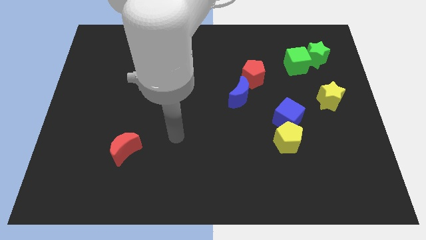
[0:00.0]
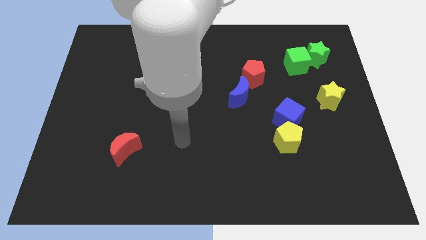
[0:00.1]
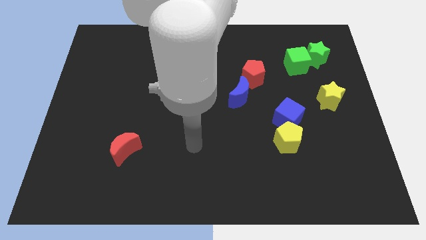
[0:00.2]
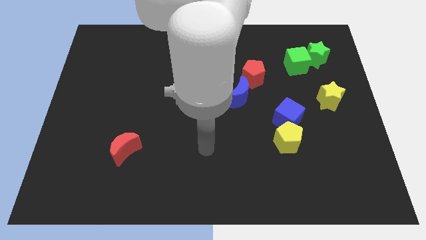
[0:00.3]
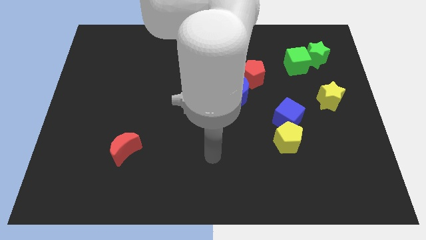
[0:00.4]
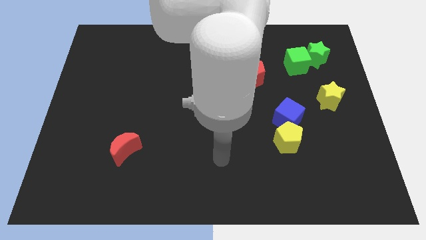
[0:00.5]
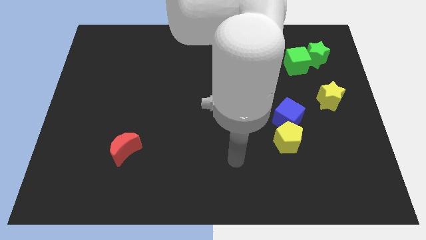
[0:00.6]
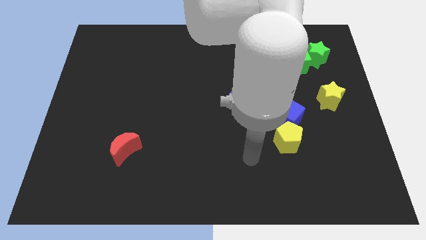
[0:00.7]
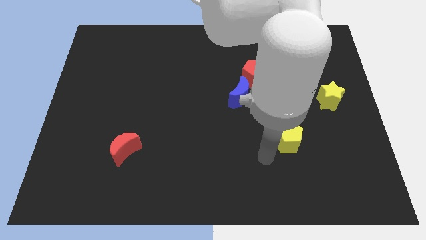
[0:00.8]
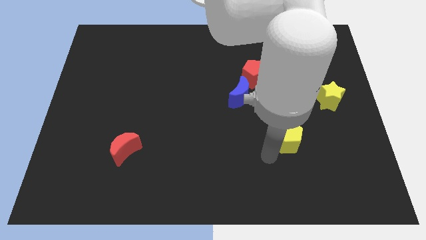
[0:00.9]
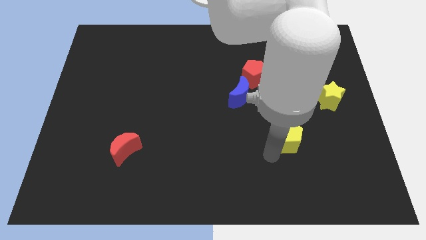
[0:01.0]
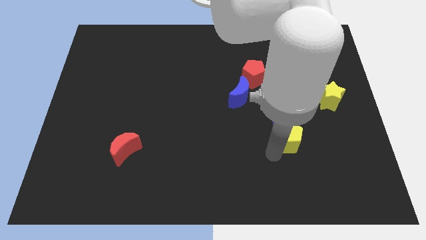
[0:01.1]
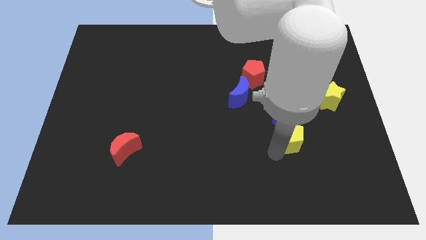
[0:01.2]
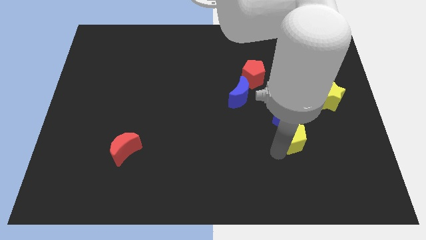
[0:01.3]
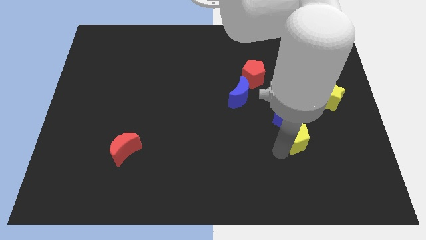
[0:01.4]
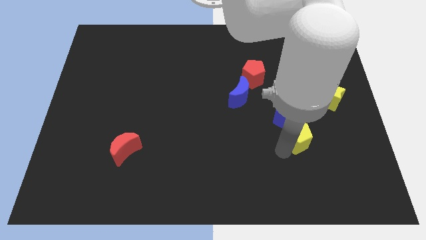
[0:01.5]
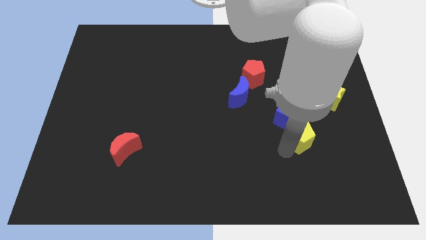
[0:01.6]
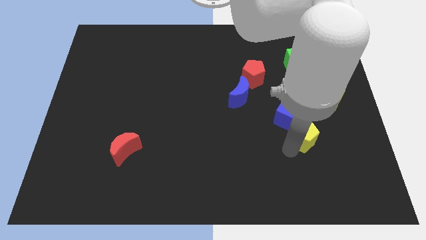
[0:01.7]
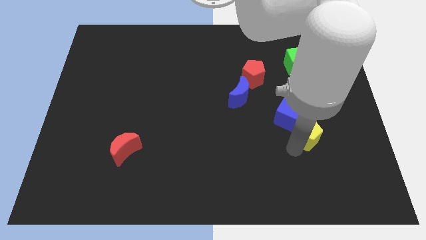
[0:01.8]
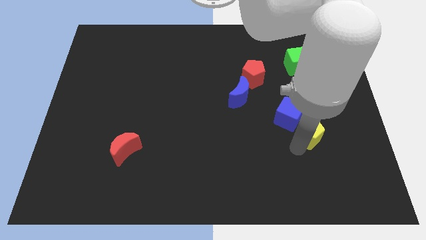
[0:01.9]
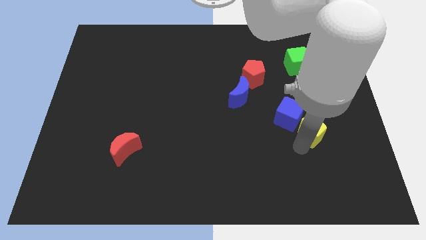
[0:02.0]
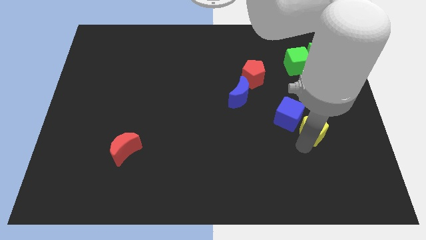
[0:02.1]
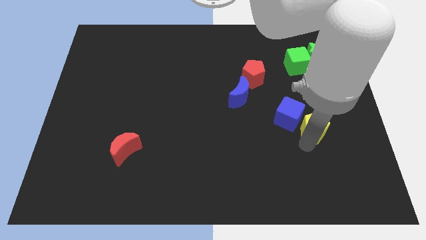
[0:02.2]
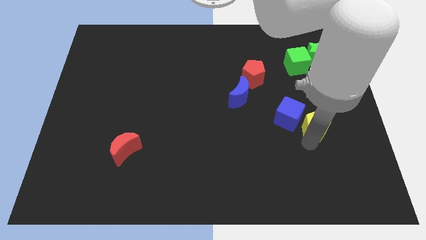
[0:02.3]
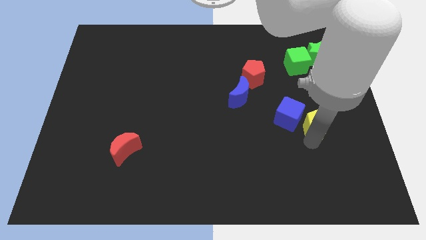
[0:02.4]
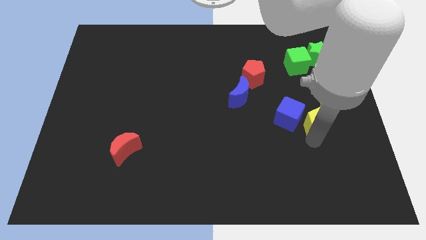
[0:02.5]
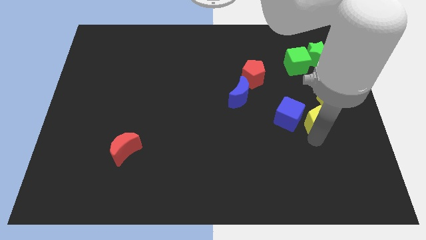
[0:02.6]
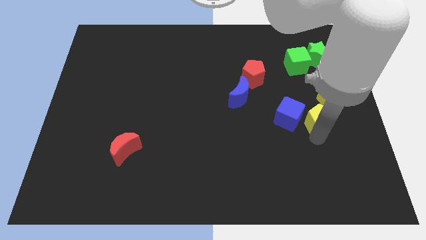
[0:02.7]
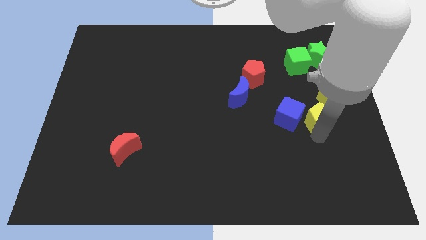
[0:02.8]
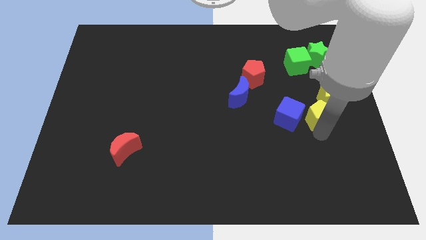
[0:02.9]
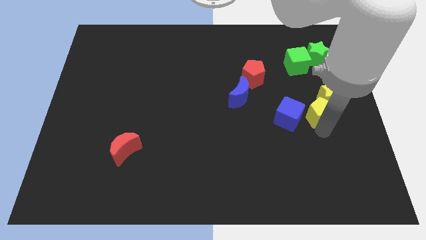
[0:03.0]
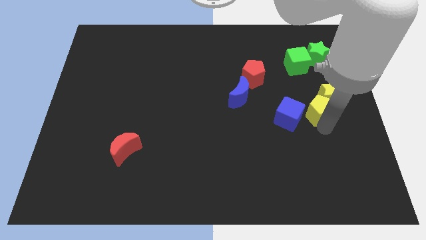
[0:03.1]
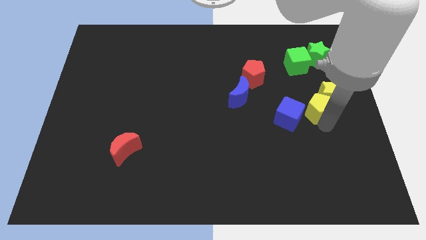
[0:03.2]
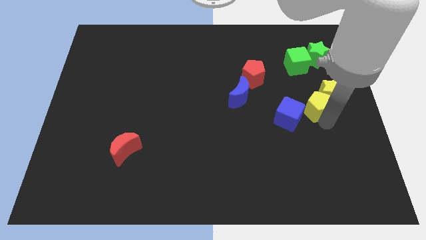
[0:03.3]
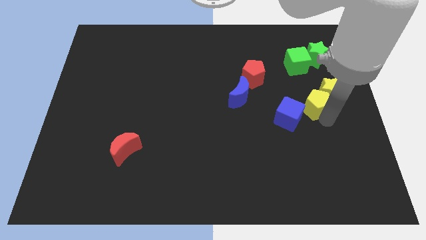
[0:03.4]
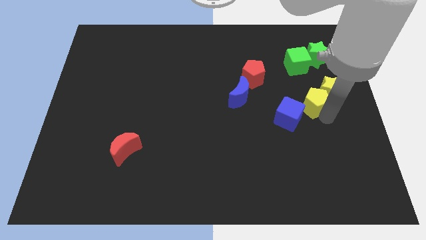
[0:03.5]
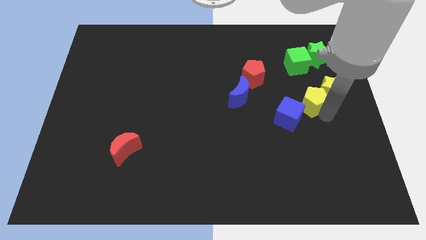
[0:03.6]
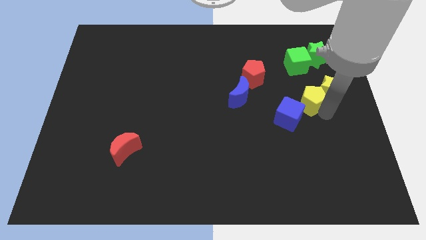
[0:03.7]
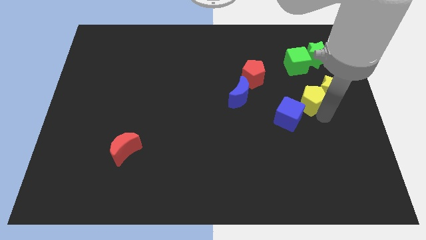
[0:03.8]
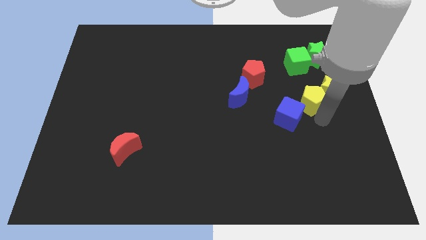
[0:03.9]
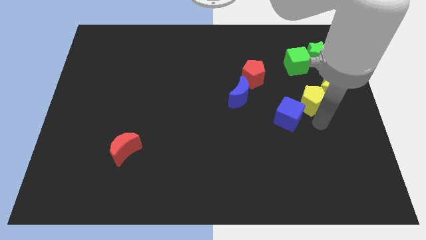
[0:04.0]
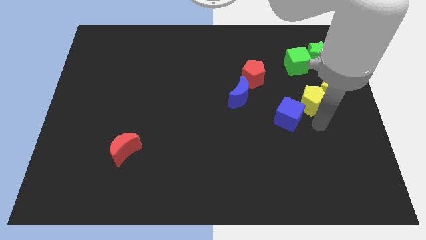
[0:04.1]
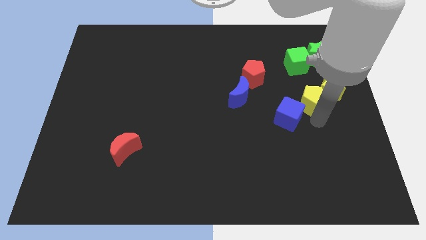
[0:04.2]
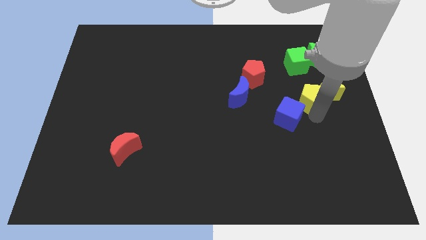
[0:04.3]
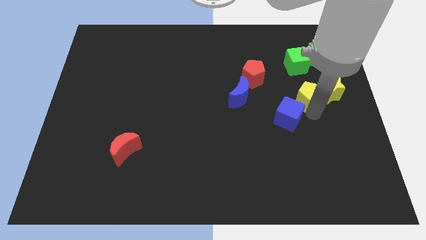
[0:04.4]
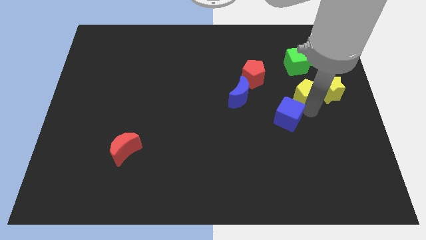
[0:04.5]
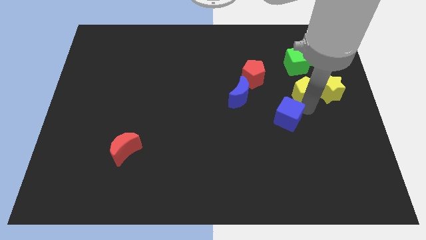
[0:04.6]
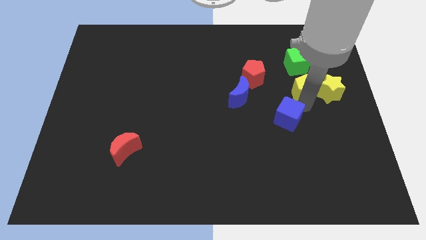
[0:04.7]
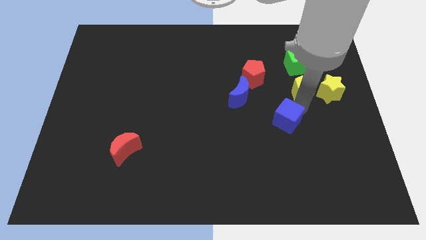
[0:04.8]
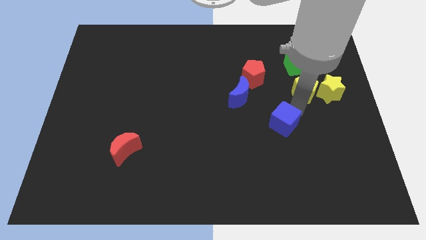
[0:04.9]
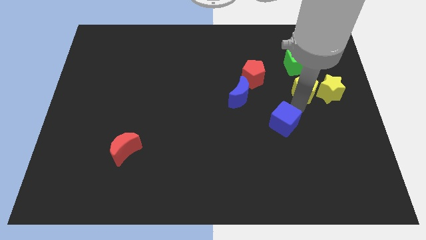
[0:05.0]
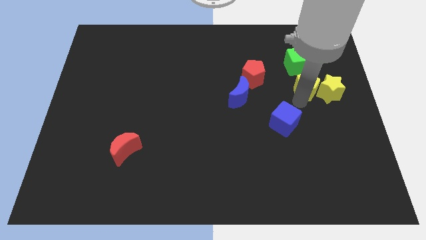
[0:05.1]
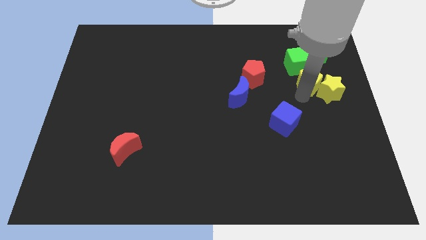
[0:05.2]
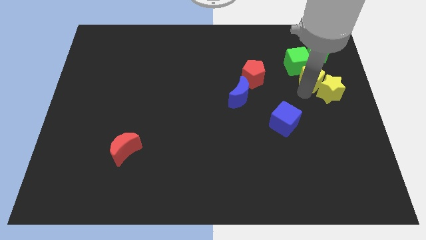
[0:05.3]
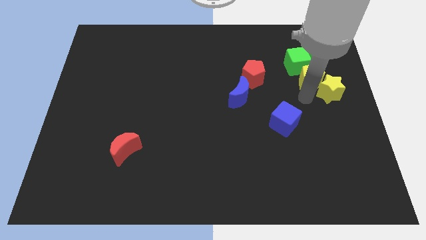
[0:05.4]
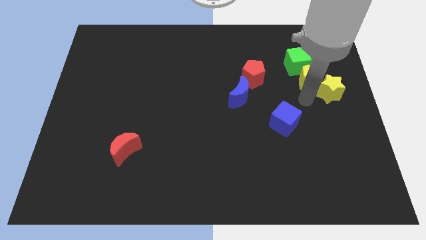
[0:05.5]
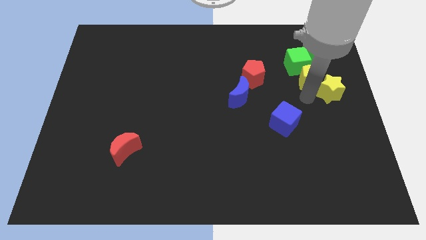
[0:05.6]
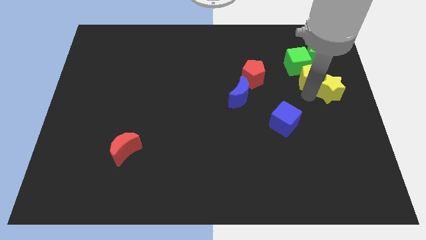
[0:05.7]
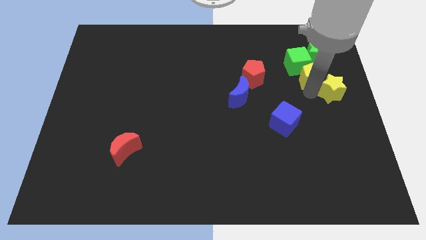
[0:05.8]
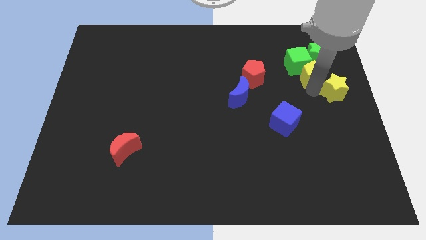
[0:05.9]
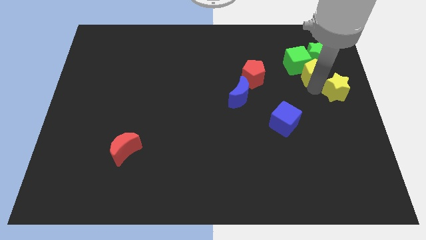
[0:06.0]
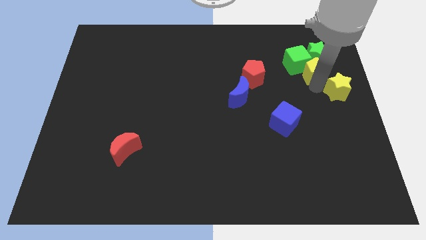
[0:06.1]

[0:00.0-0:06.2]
put the yellow pentagon to the green star

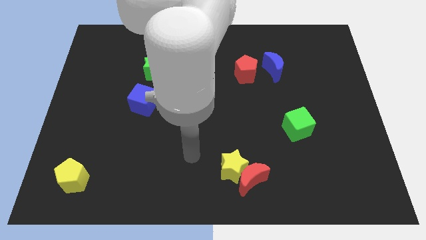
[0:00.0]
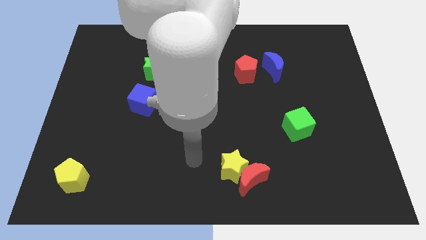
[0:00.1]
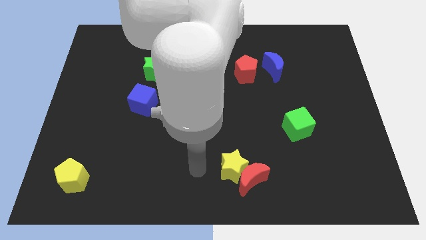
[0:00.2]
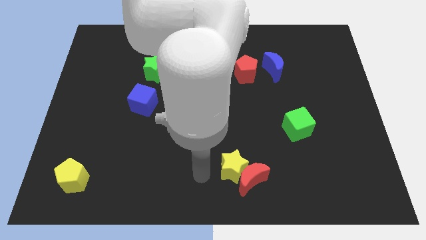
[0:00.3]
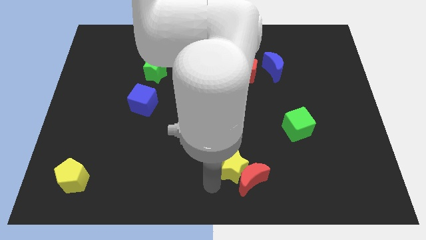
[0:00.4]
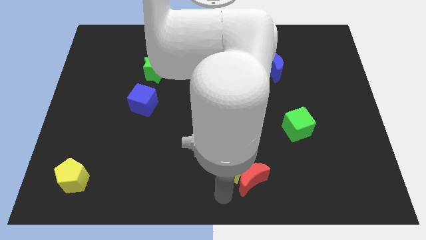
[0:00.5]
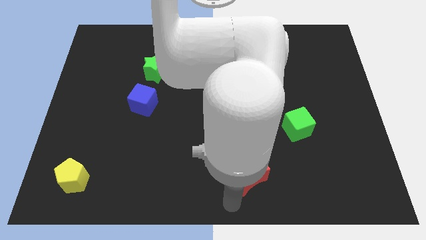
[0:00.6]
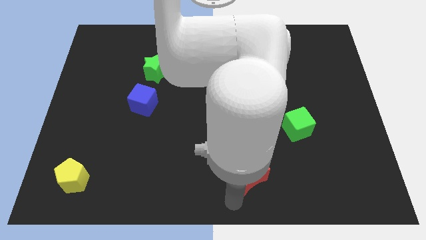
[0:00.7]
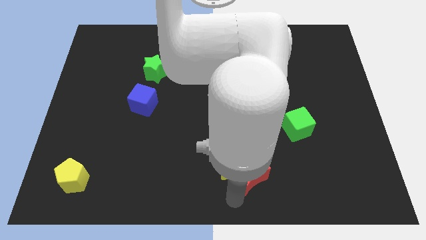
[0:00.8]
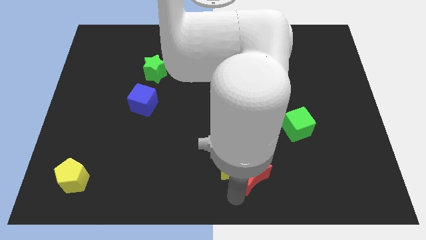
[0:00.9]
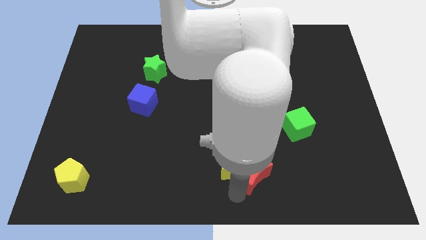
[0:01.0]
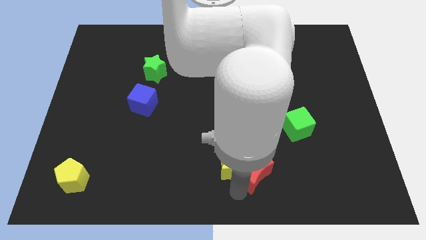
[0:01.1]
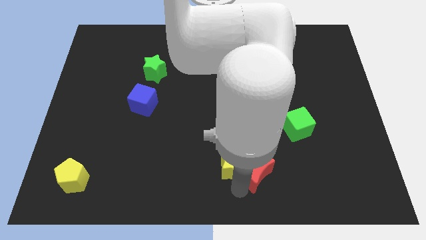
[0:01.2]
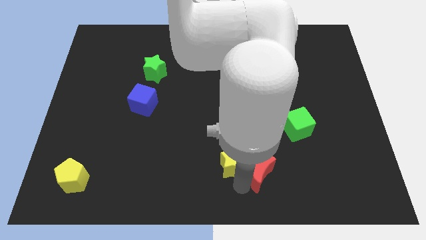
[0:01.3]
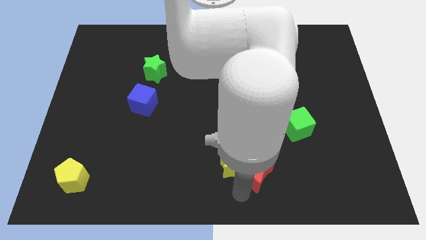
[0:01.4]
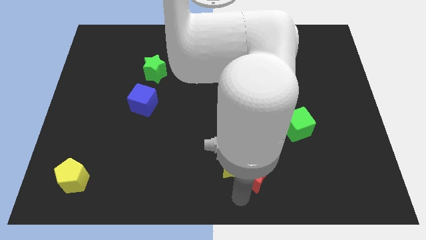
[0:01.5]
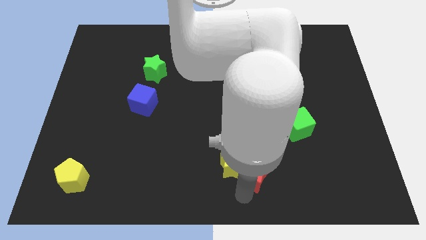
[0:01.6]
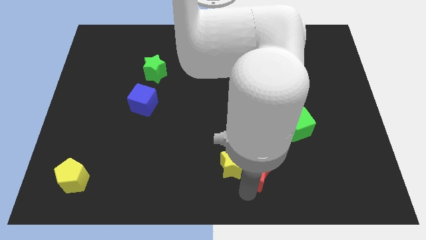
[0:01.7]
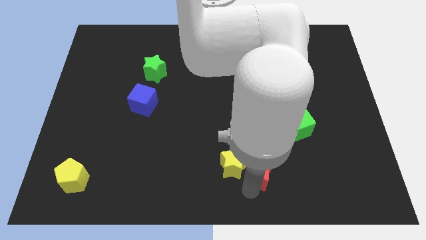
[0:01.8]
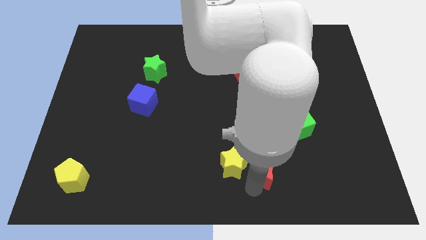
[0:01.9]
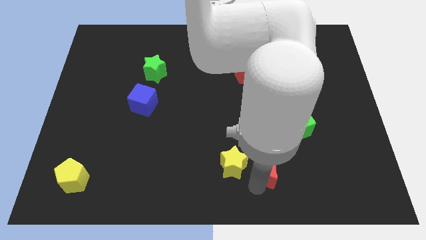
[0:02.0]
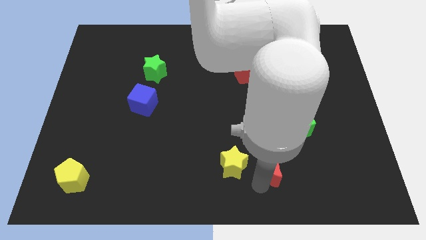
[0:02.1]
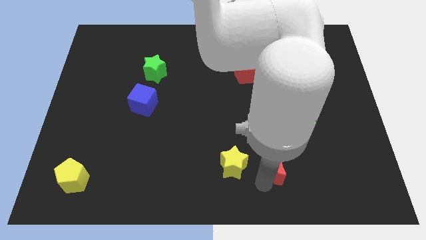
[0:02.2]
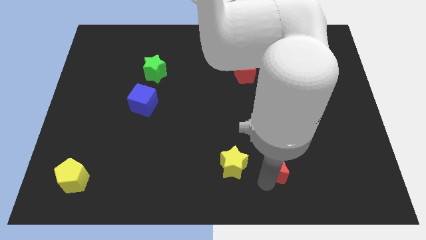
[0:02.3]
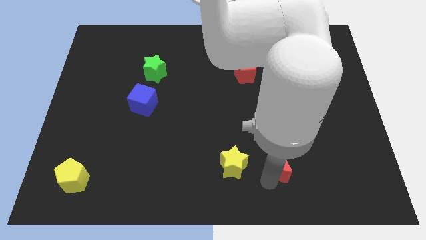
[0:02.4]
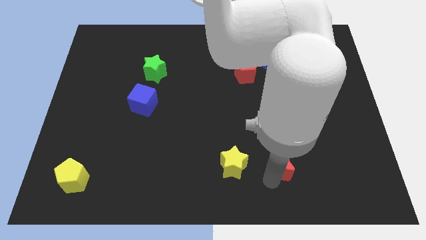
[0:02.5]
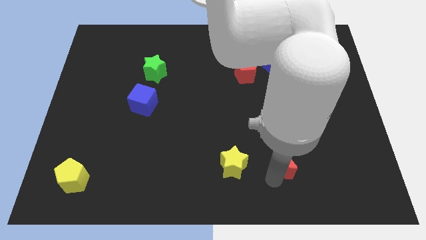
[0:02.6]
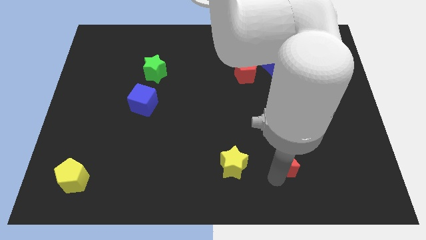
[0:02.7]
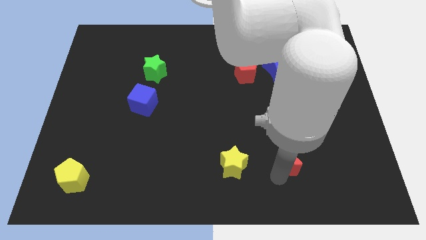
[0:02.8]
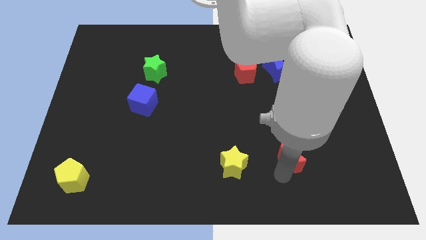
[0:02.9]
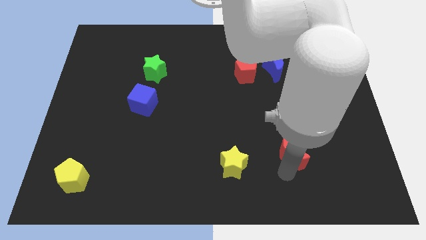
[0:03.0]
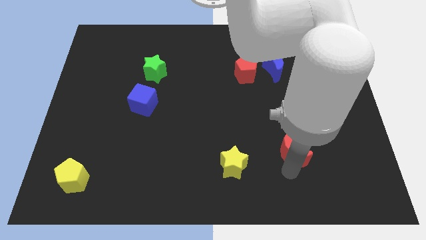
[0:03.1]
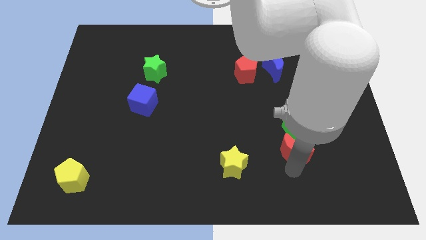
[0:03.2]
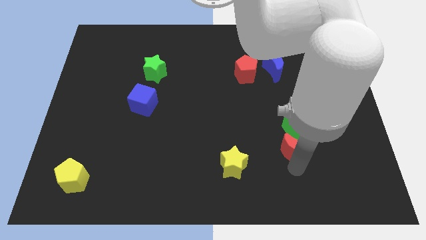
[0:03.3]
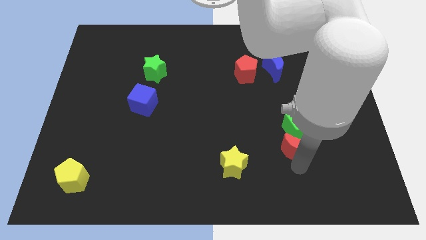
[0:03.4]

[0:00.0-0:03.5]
push the red moon close to the green cube
